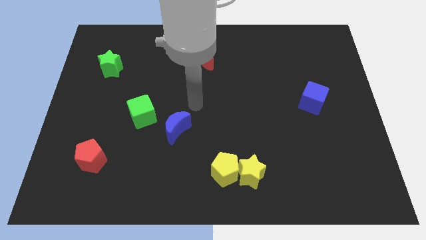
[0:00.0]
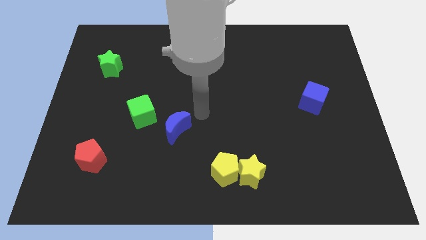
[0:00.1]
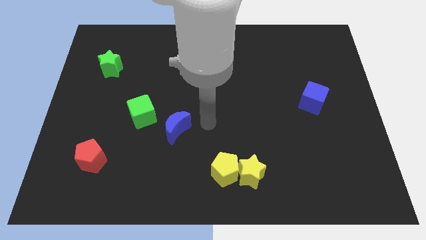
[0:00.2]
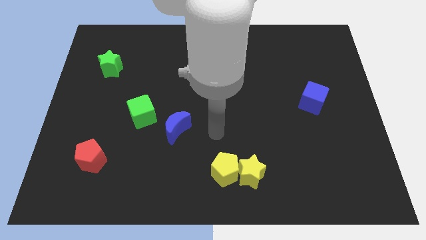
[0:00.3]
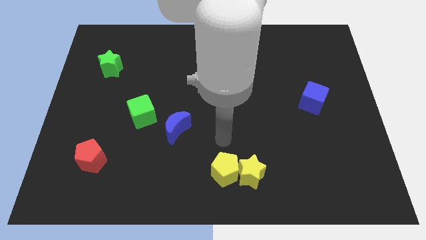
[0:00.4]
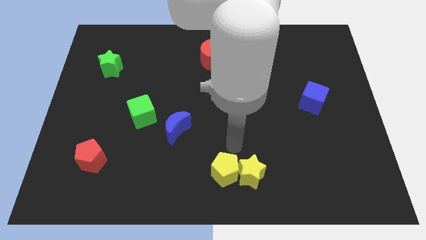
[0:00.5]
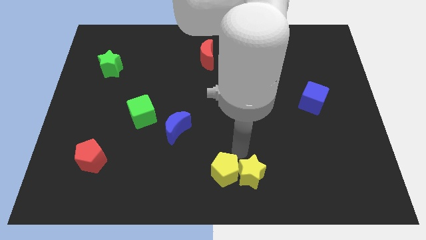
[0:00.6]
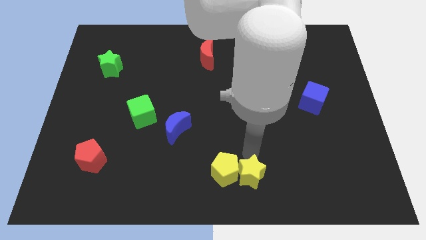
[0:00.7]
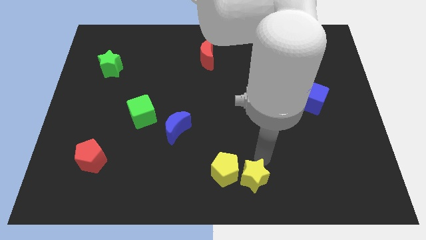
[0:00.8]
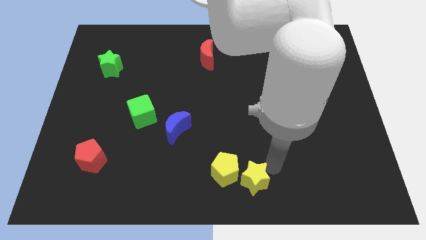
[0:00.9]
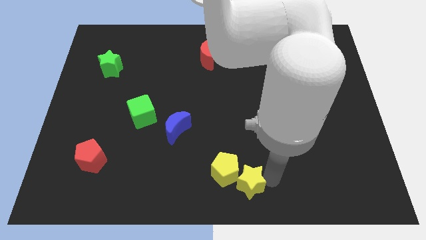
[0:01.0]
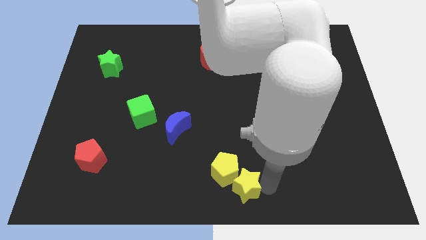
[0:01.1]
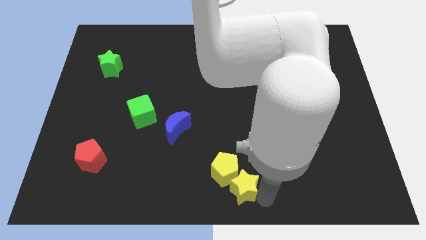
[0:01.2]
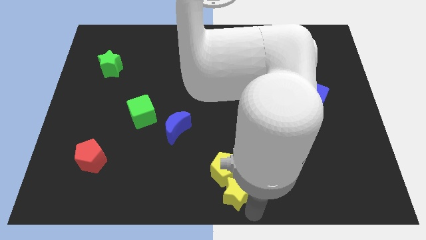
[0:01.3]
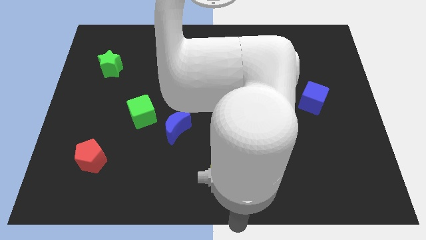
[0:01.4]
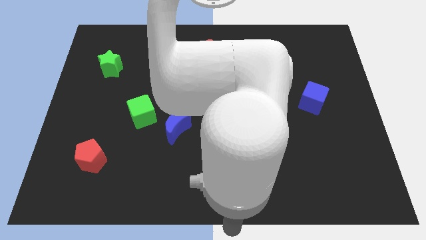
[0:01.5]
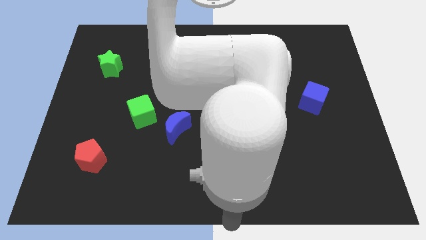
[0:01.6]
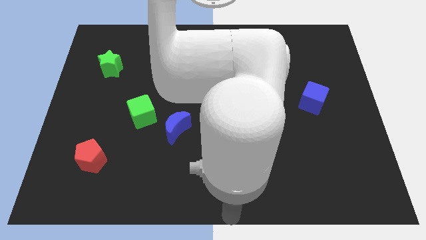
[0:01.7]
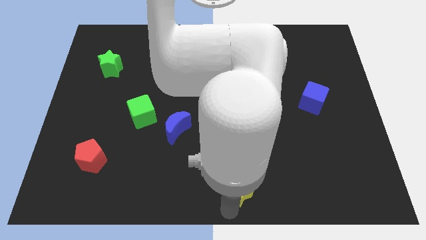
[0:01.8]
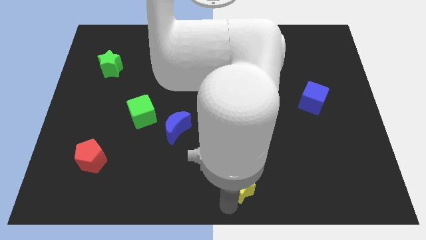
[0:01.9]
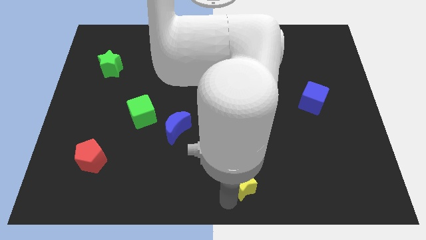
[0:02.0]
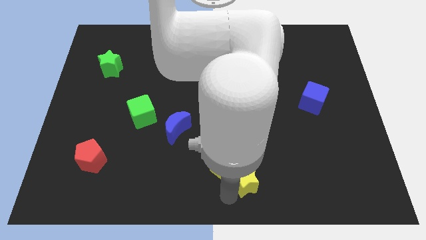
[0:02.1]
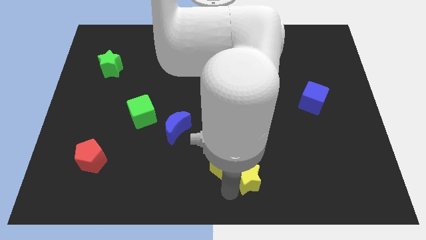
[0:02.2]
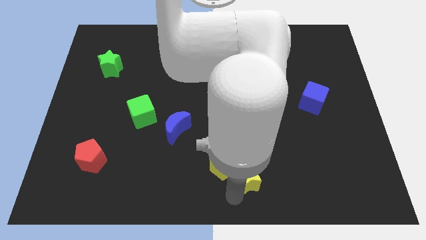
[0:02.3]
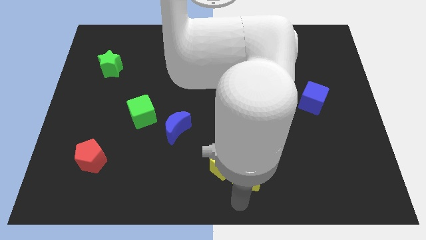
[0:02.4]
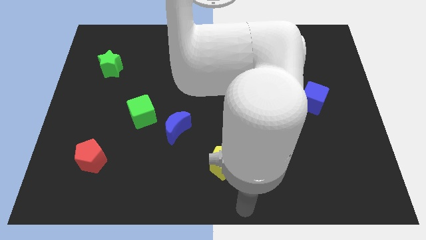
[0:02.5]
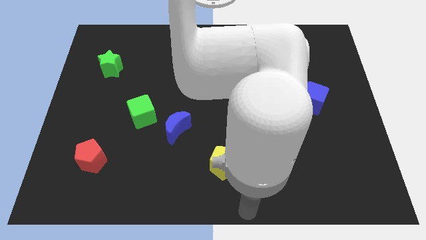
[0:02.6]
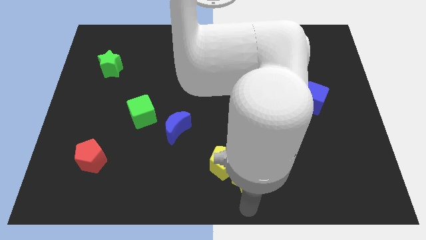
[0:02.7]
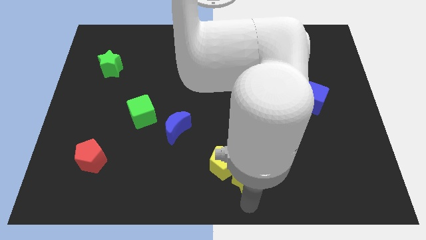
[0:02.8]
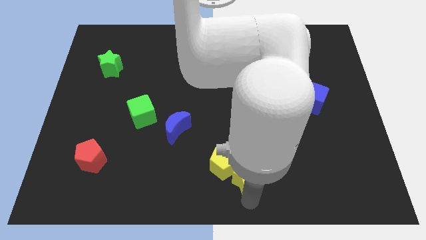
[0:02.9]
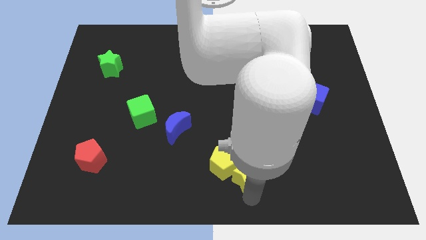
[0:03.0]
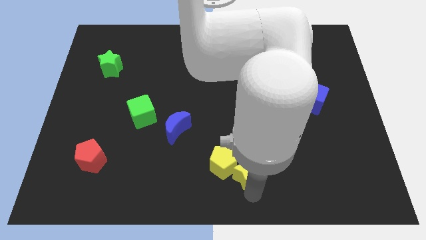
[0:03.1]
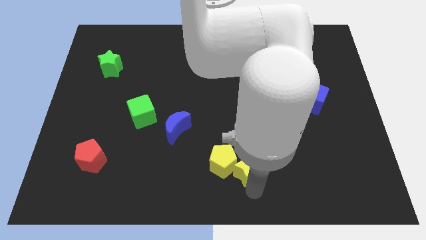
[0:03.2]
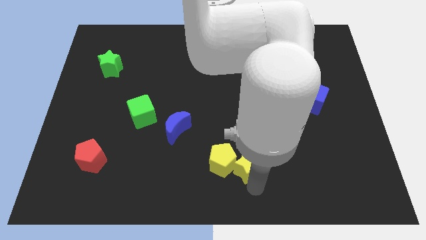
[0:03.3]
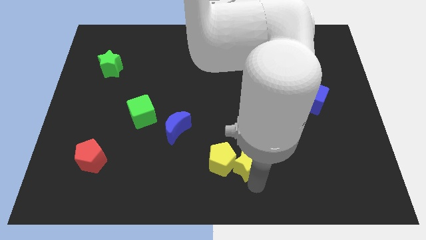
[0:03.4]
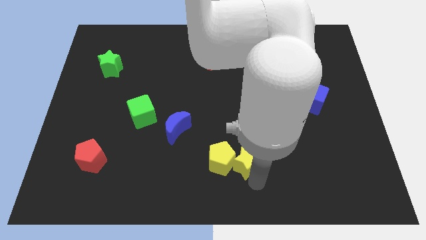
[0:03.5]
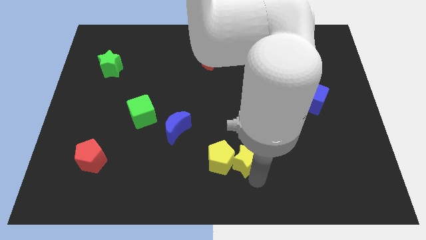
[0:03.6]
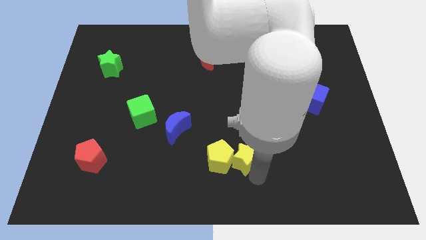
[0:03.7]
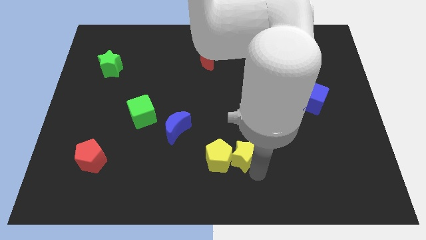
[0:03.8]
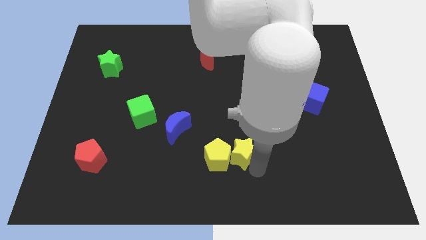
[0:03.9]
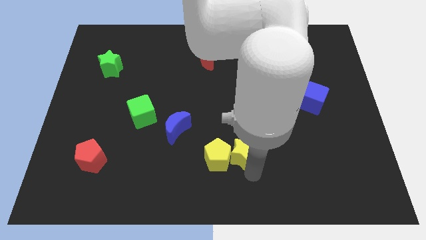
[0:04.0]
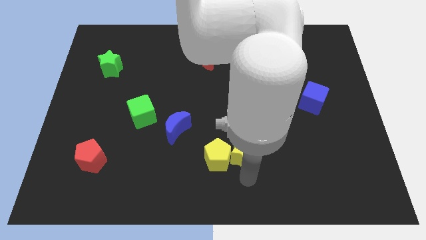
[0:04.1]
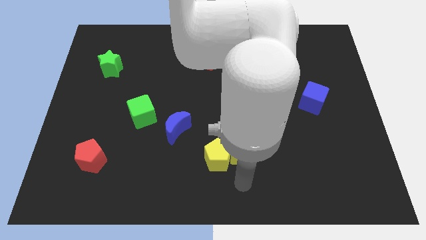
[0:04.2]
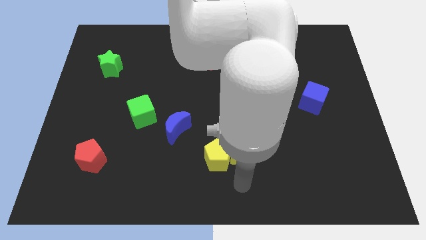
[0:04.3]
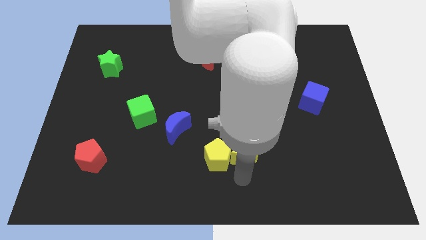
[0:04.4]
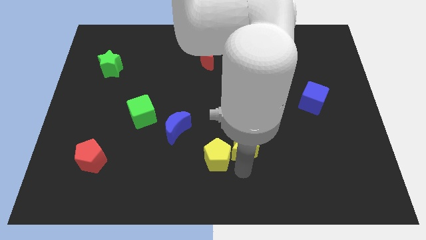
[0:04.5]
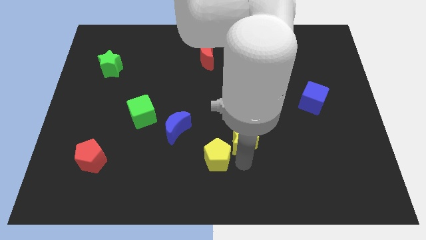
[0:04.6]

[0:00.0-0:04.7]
slightly move the yellow star upwards

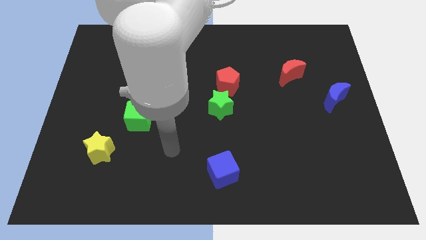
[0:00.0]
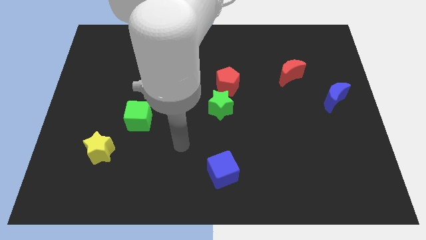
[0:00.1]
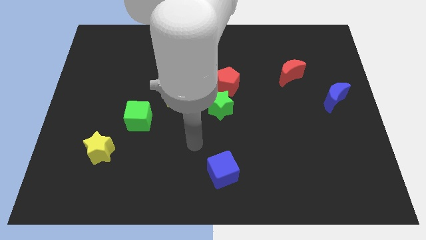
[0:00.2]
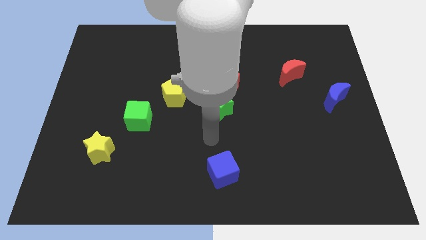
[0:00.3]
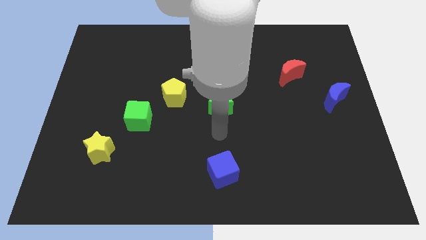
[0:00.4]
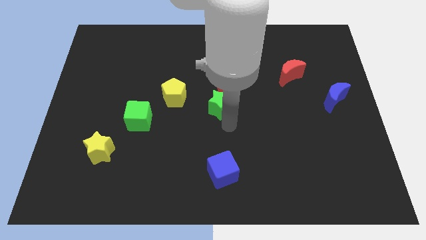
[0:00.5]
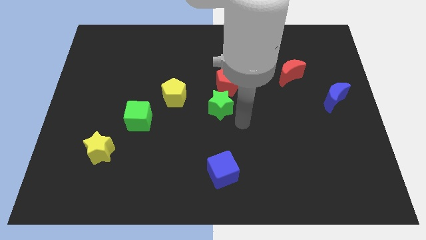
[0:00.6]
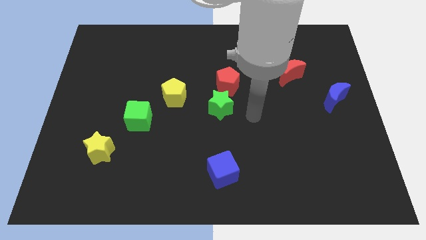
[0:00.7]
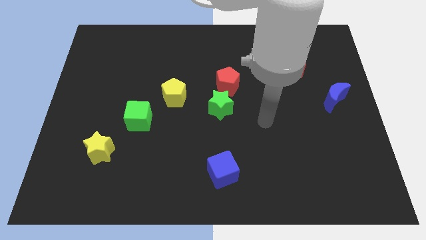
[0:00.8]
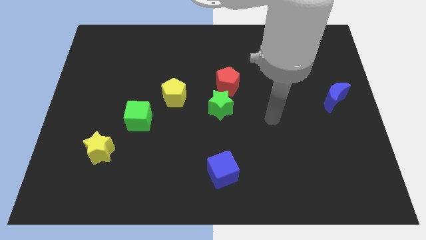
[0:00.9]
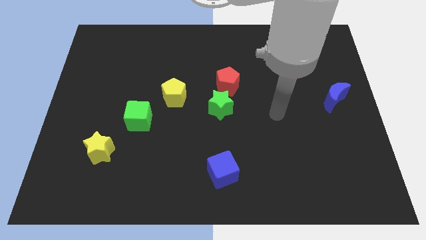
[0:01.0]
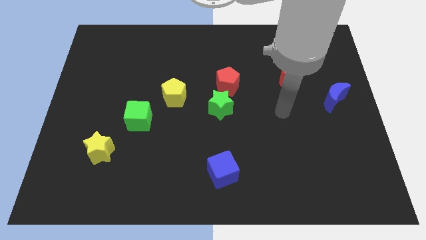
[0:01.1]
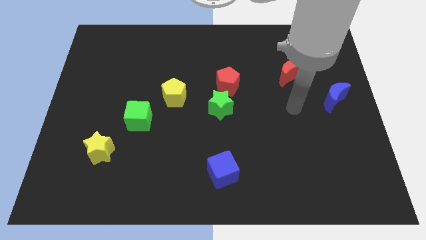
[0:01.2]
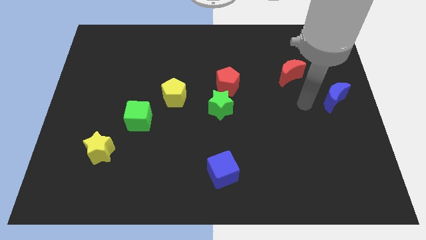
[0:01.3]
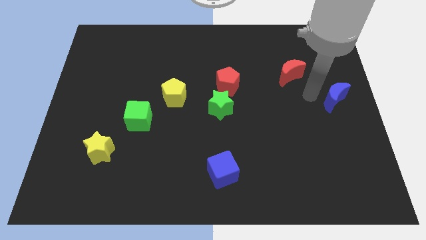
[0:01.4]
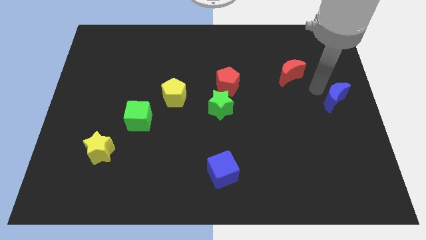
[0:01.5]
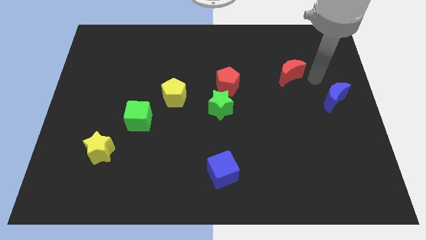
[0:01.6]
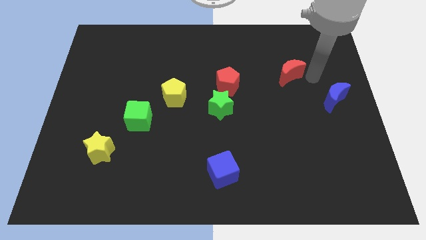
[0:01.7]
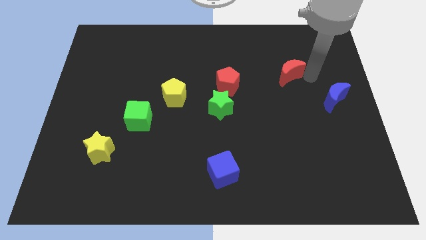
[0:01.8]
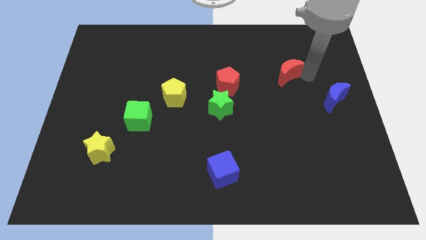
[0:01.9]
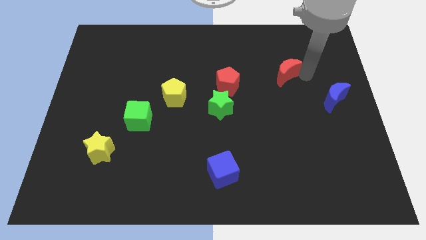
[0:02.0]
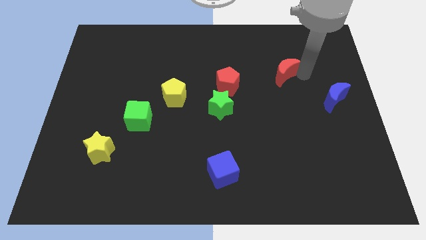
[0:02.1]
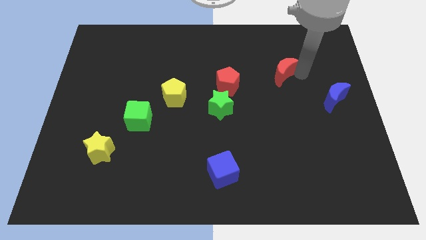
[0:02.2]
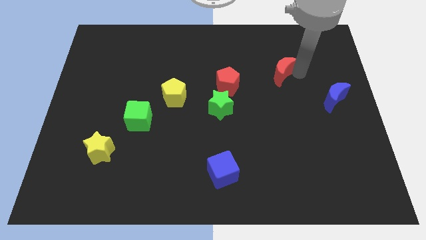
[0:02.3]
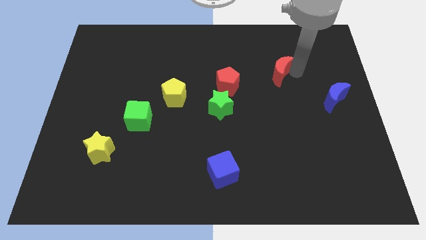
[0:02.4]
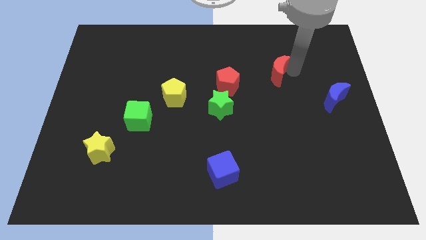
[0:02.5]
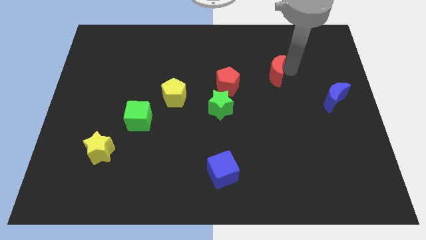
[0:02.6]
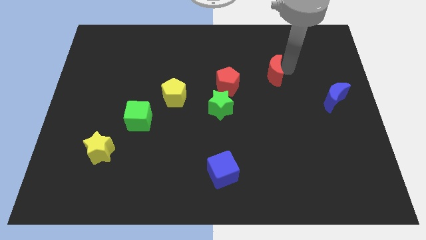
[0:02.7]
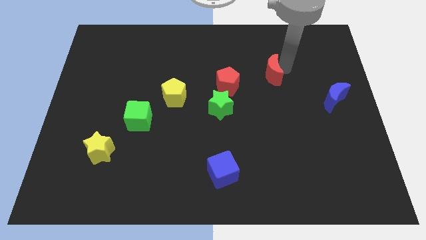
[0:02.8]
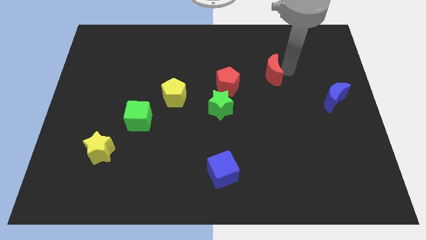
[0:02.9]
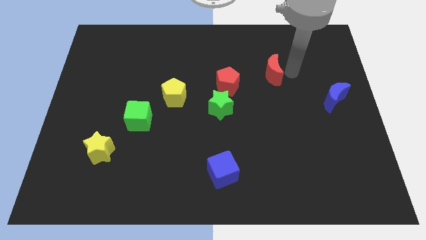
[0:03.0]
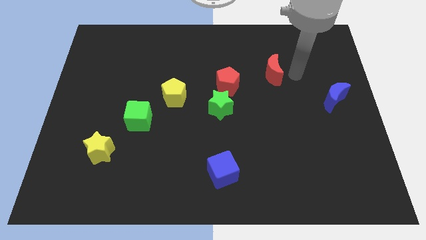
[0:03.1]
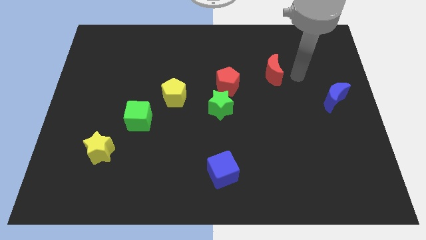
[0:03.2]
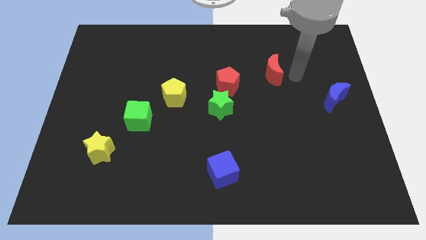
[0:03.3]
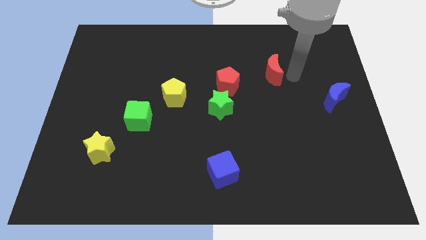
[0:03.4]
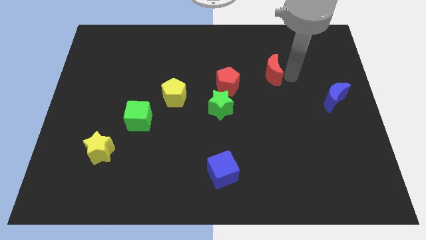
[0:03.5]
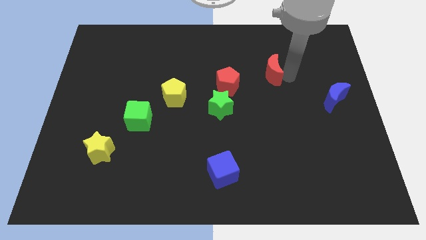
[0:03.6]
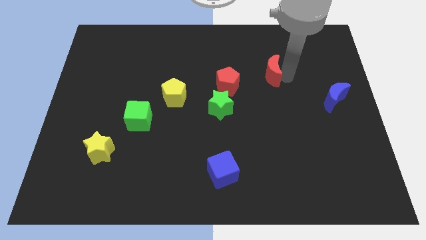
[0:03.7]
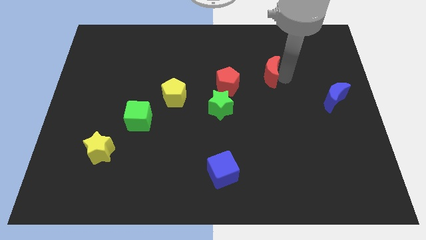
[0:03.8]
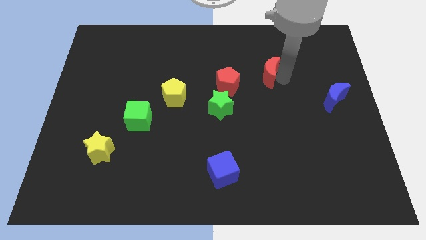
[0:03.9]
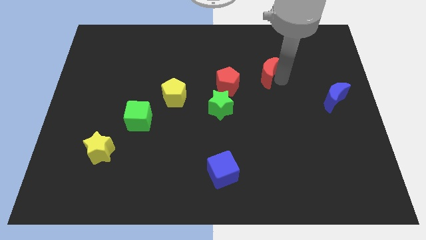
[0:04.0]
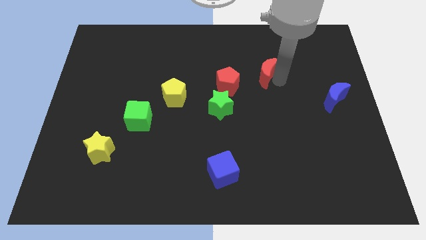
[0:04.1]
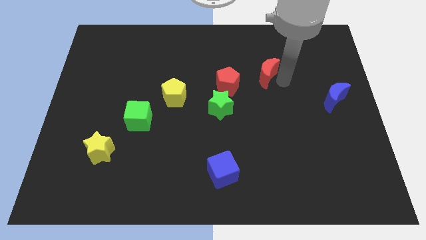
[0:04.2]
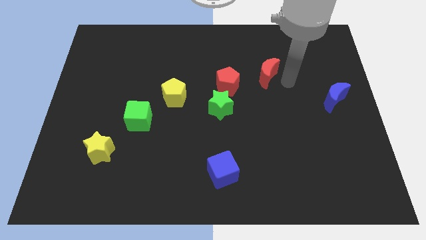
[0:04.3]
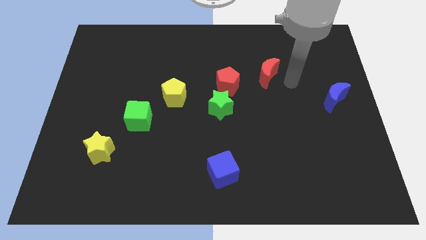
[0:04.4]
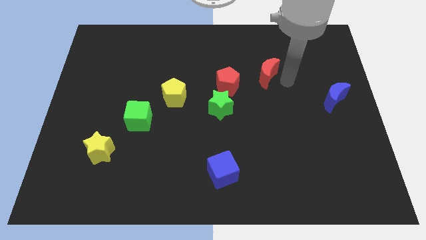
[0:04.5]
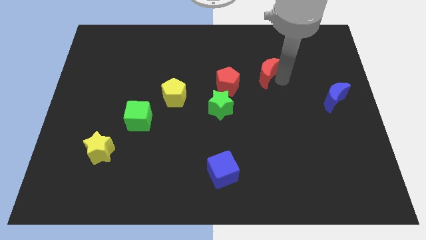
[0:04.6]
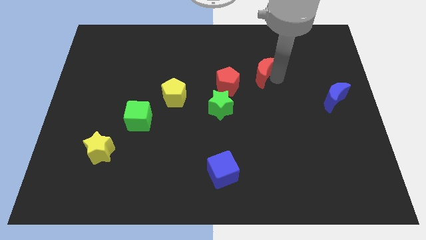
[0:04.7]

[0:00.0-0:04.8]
push the red moon left somewhat
